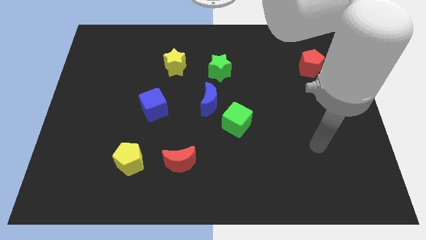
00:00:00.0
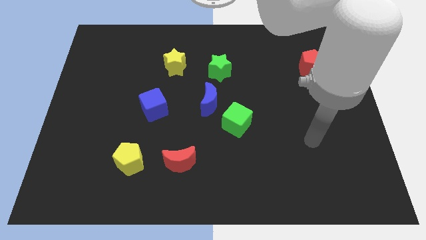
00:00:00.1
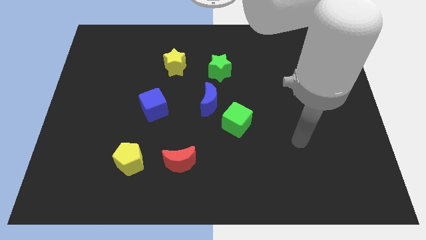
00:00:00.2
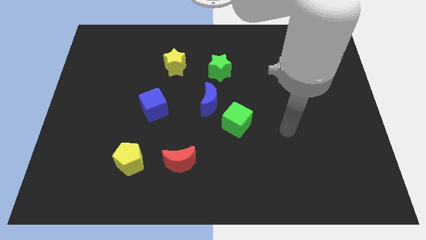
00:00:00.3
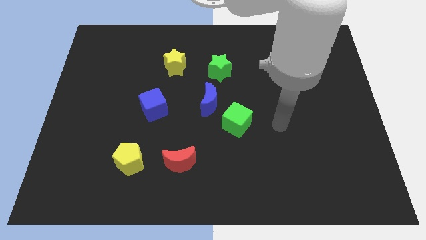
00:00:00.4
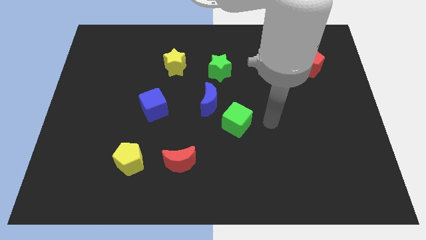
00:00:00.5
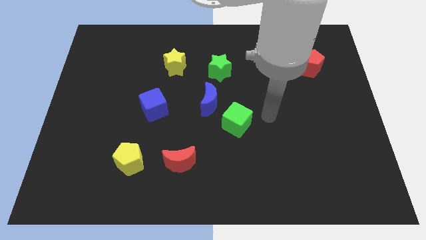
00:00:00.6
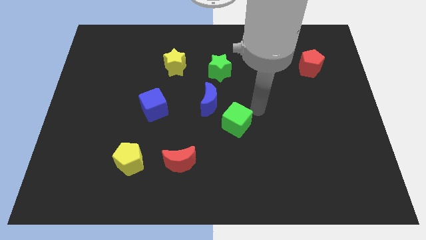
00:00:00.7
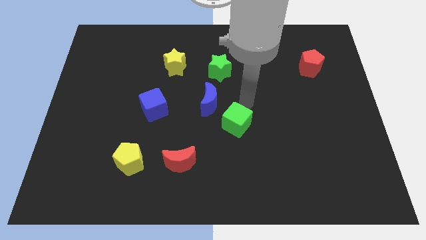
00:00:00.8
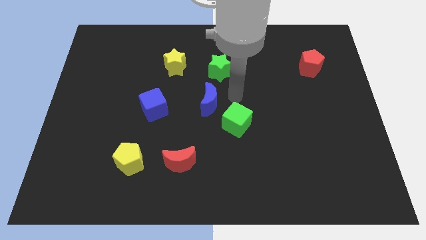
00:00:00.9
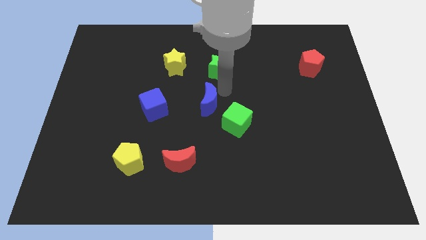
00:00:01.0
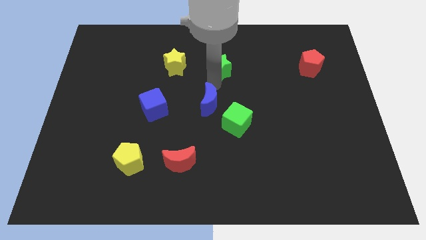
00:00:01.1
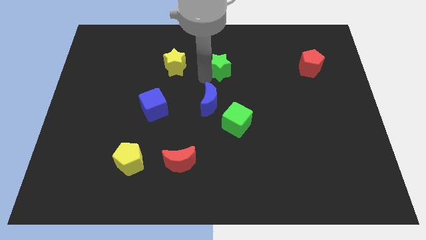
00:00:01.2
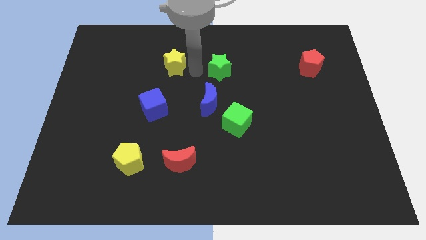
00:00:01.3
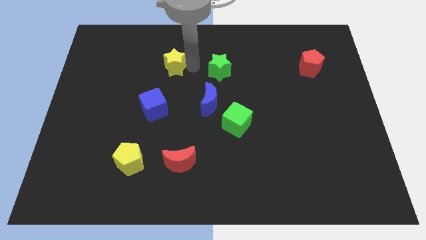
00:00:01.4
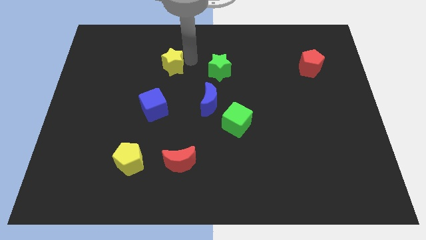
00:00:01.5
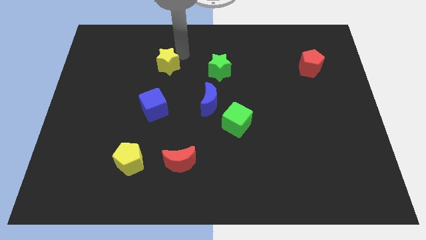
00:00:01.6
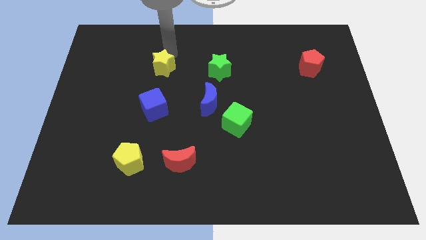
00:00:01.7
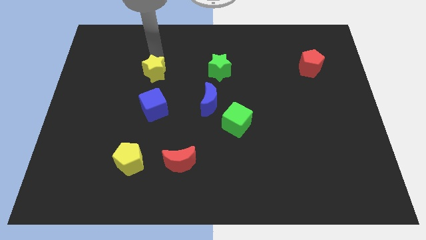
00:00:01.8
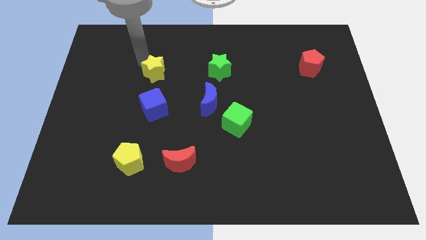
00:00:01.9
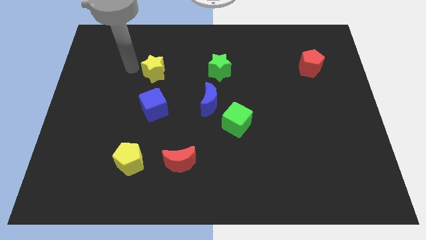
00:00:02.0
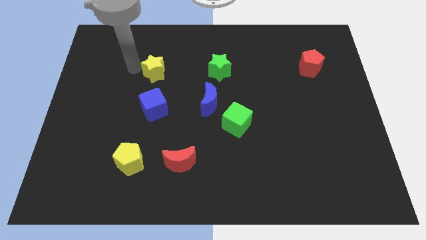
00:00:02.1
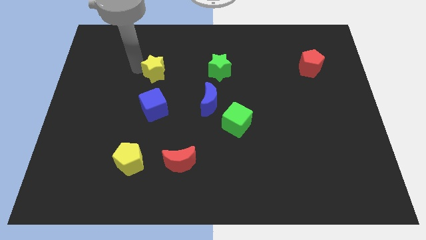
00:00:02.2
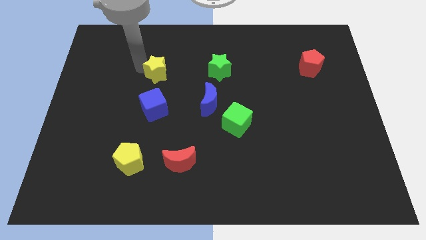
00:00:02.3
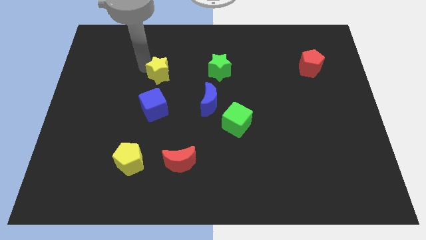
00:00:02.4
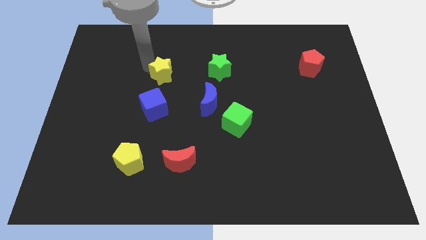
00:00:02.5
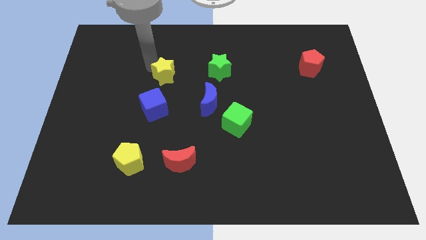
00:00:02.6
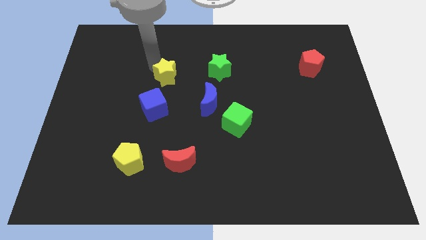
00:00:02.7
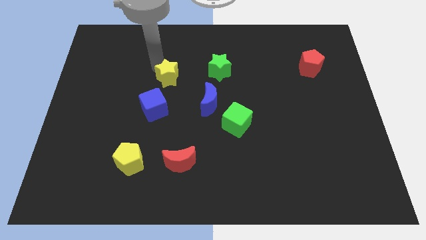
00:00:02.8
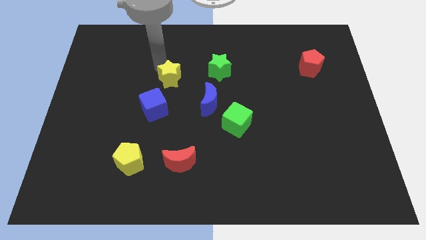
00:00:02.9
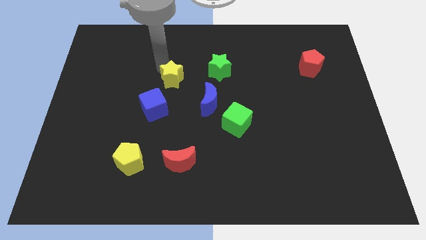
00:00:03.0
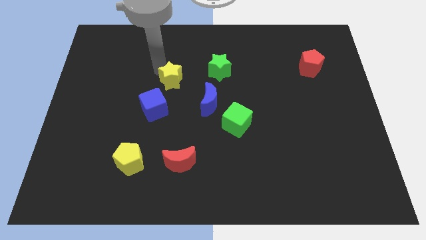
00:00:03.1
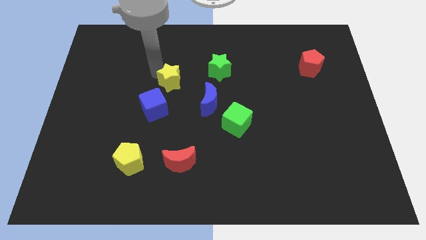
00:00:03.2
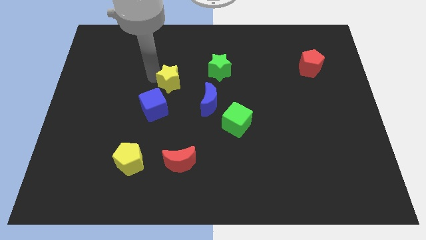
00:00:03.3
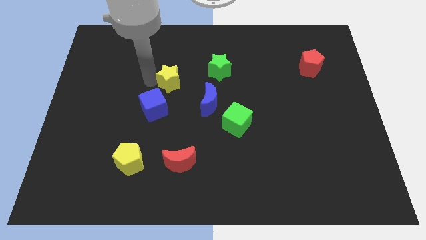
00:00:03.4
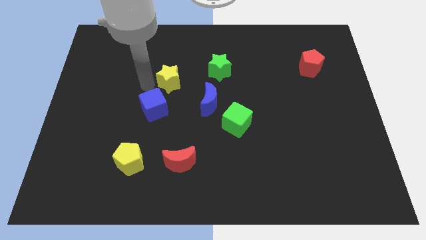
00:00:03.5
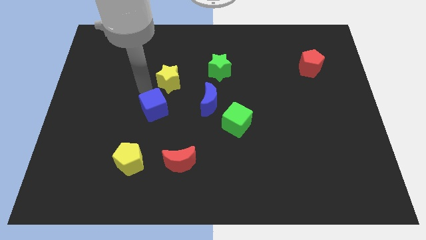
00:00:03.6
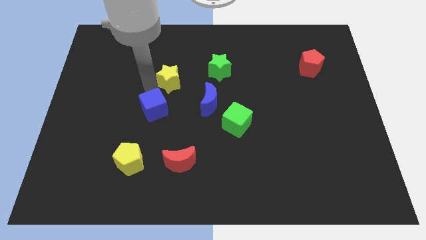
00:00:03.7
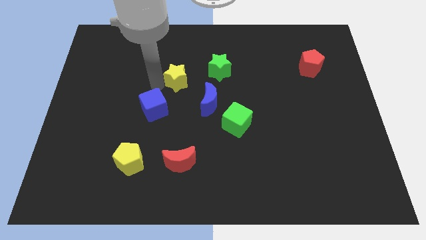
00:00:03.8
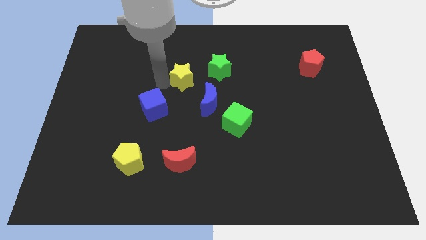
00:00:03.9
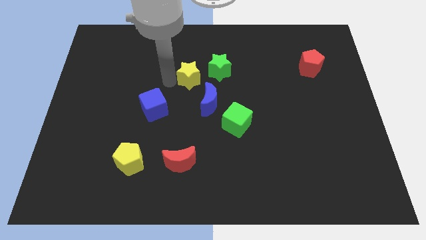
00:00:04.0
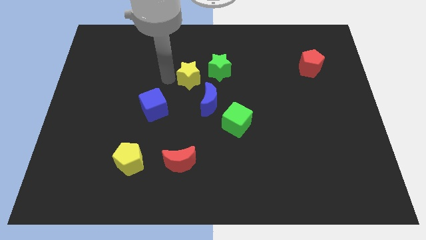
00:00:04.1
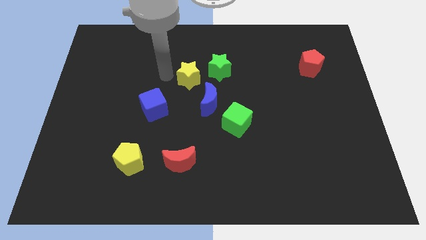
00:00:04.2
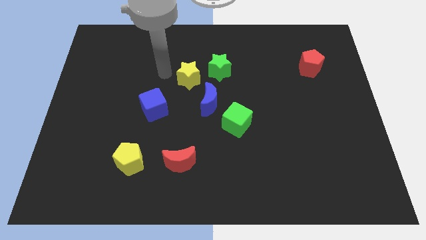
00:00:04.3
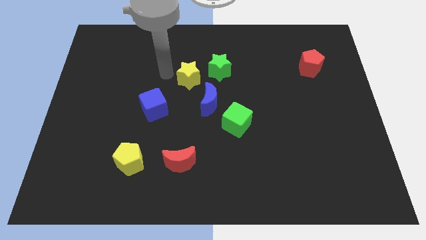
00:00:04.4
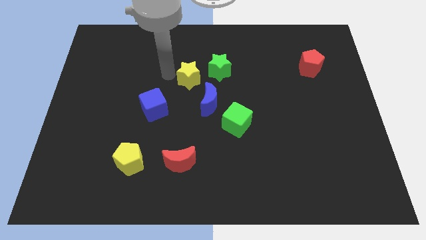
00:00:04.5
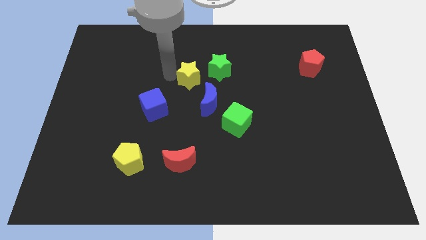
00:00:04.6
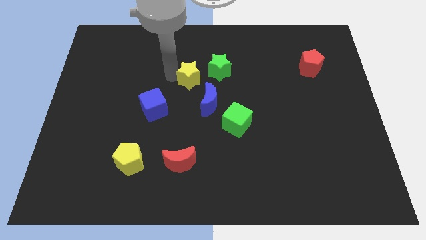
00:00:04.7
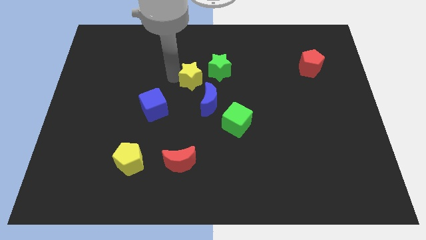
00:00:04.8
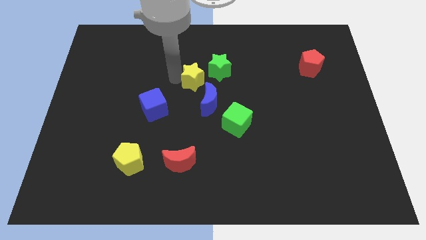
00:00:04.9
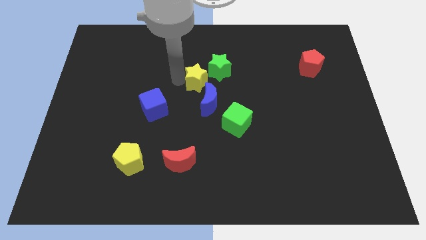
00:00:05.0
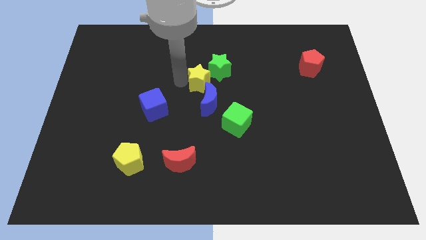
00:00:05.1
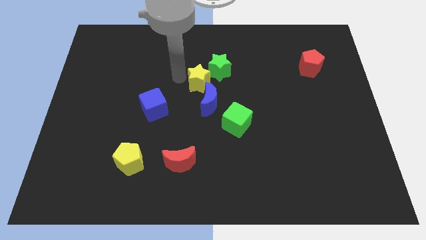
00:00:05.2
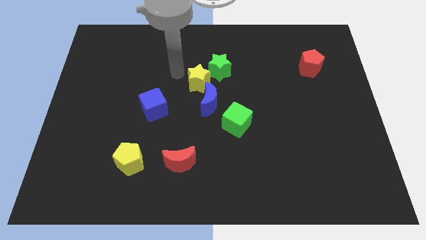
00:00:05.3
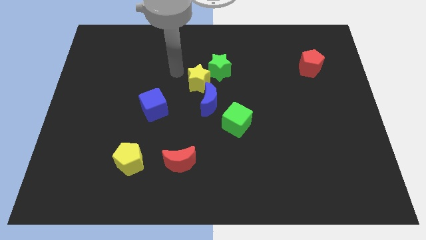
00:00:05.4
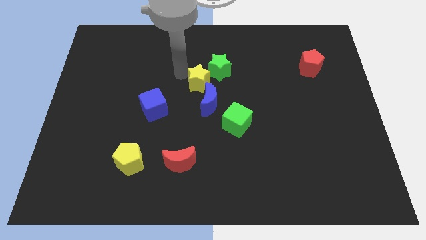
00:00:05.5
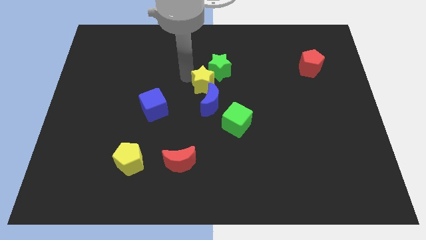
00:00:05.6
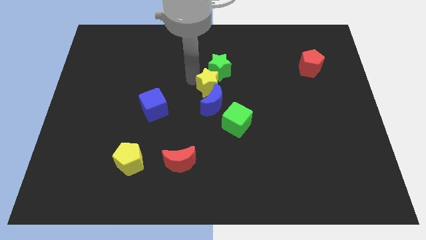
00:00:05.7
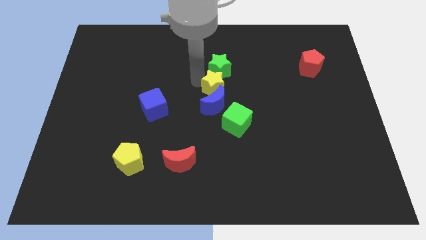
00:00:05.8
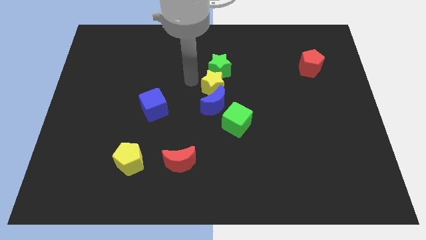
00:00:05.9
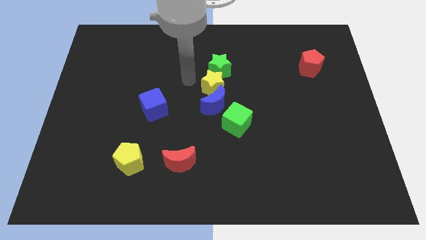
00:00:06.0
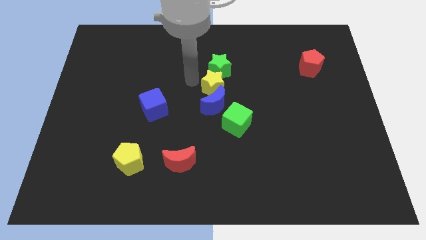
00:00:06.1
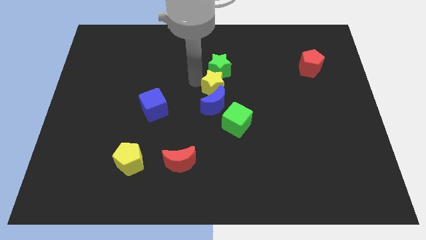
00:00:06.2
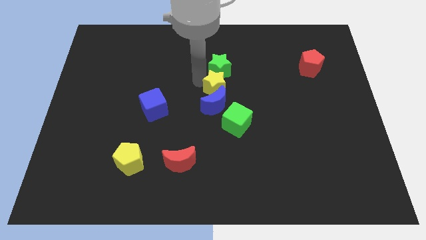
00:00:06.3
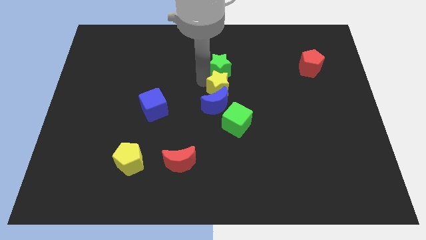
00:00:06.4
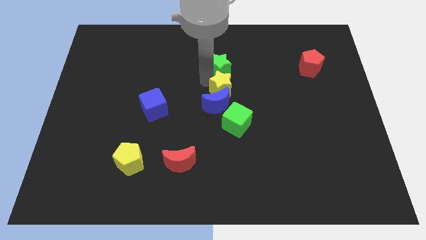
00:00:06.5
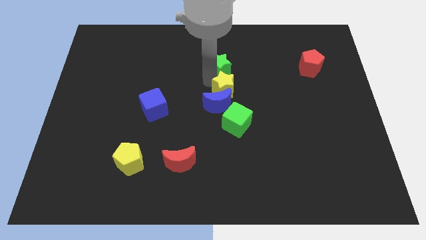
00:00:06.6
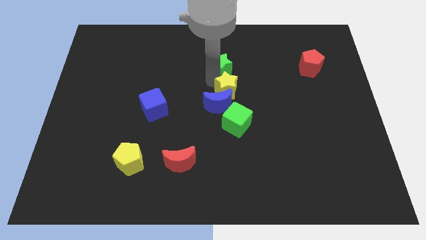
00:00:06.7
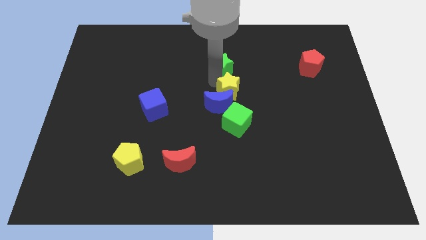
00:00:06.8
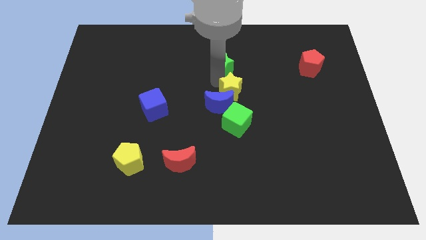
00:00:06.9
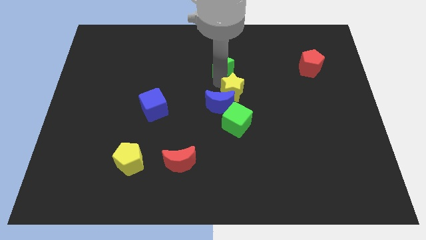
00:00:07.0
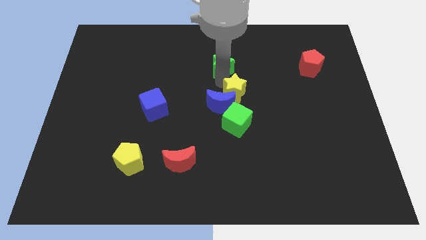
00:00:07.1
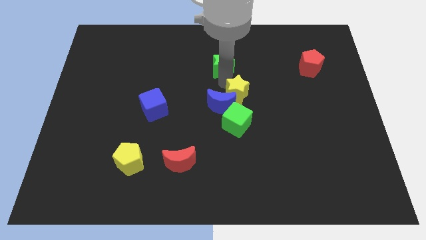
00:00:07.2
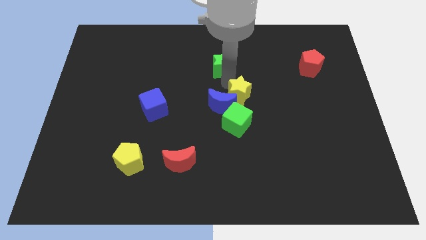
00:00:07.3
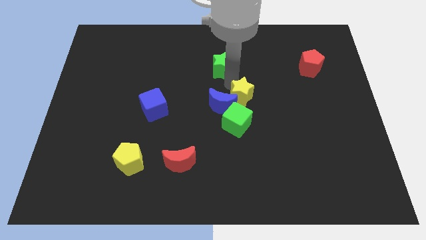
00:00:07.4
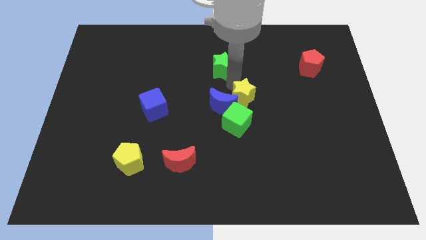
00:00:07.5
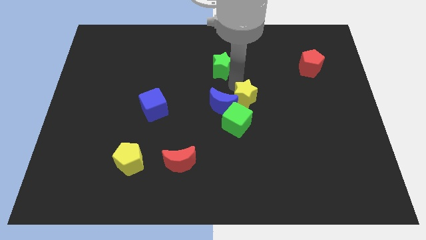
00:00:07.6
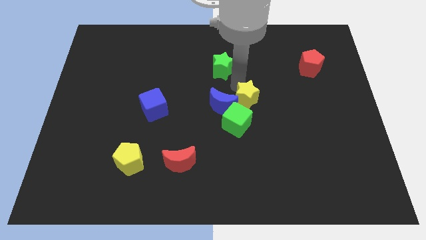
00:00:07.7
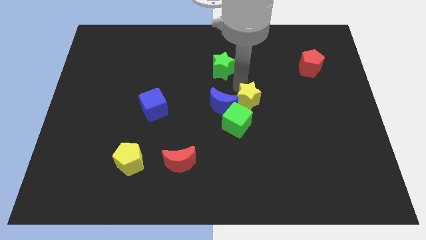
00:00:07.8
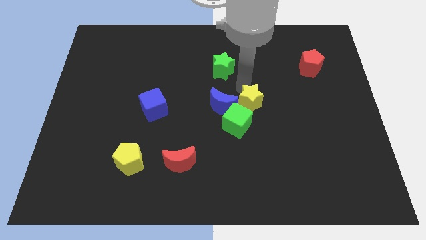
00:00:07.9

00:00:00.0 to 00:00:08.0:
move the yellow star downwards and to the right

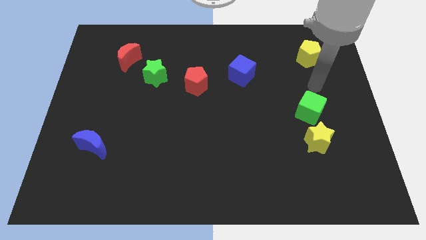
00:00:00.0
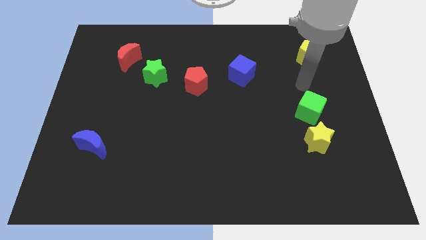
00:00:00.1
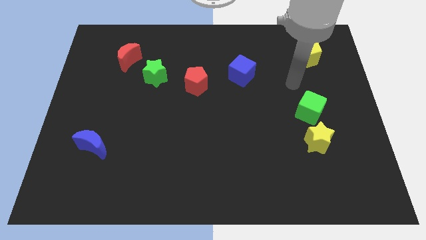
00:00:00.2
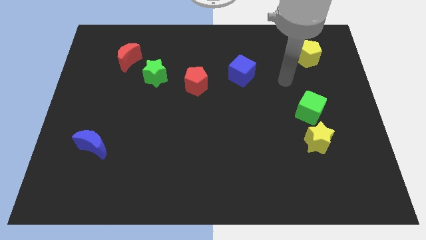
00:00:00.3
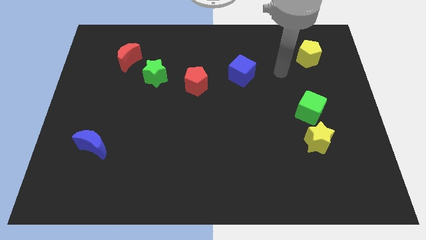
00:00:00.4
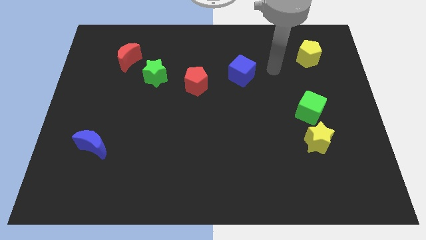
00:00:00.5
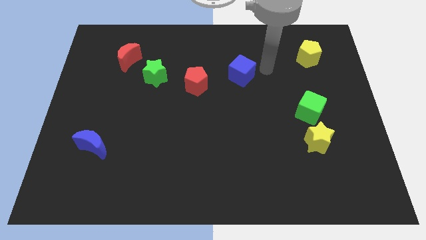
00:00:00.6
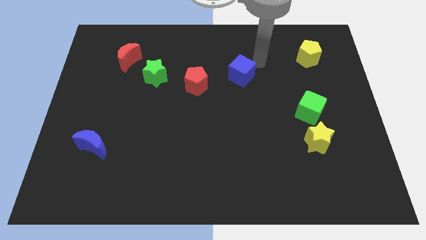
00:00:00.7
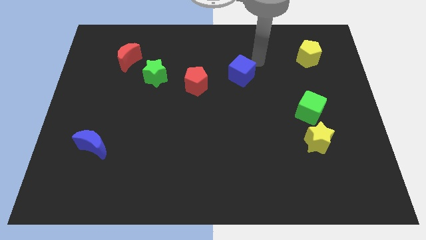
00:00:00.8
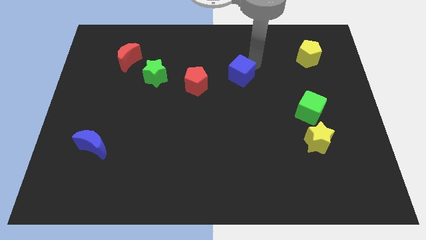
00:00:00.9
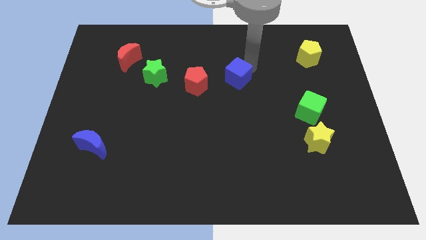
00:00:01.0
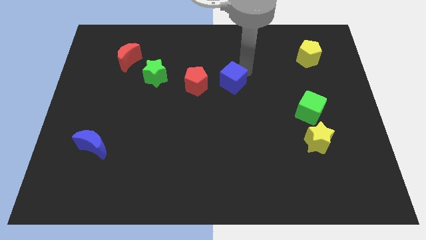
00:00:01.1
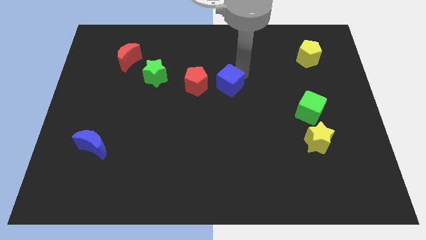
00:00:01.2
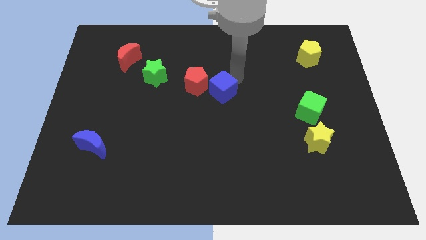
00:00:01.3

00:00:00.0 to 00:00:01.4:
move the blue cube downwards and to the left somewhat
